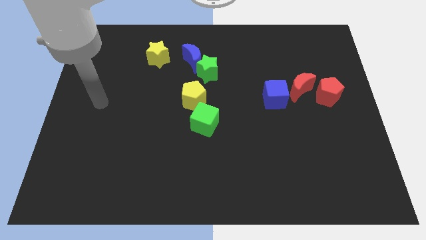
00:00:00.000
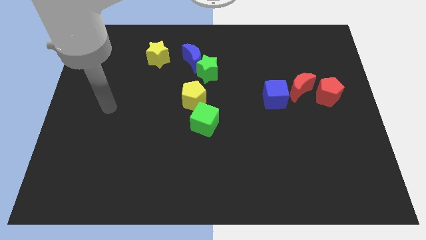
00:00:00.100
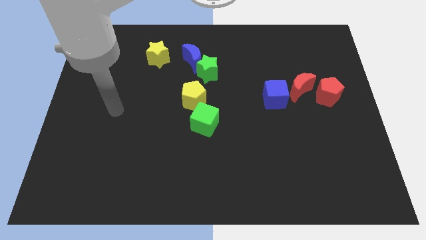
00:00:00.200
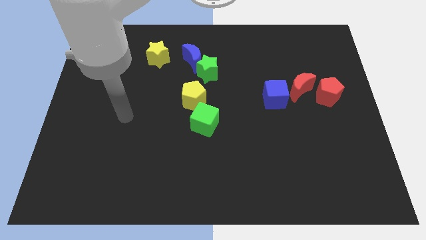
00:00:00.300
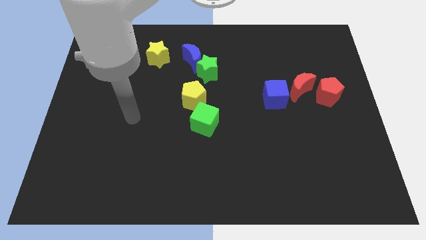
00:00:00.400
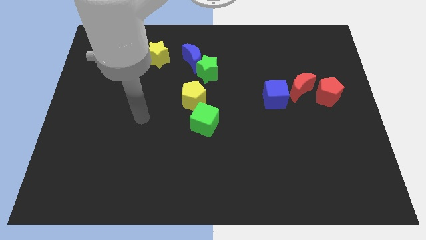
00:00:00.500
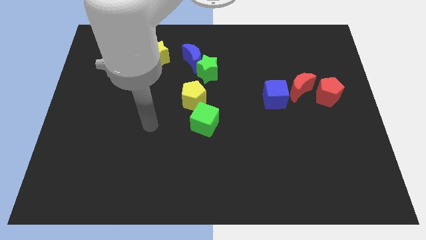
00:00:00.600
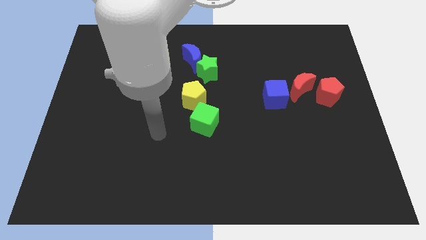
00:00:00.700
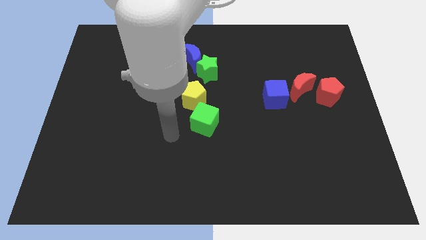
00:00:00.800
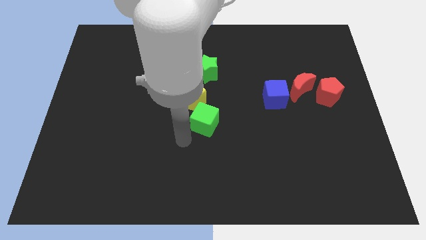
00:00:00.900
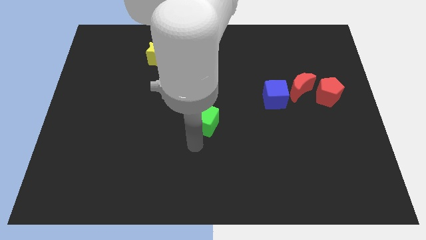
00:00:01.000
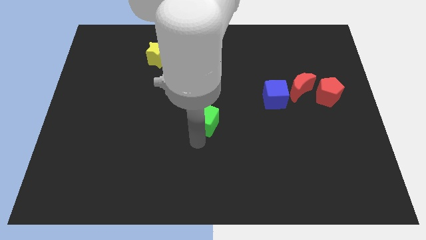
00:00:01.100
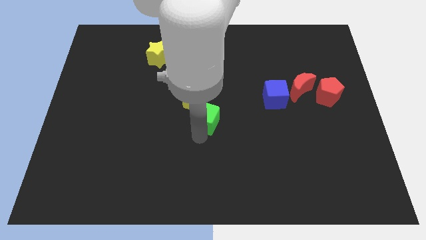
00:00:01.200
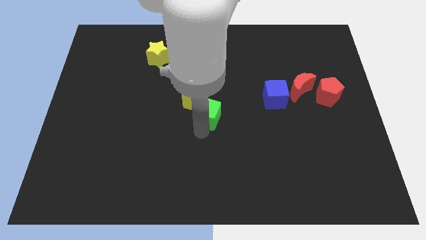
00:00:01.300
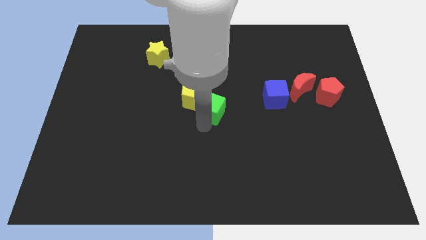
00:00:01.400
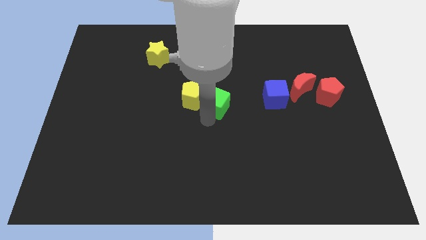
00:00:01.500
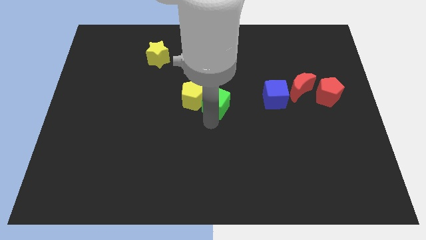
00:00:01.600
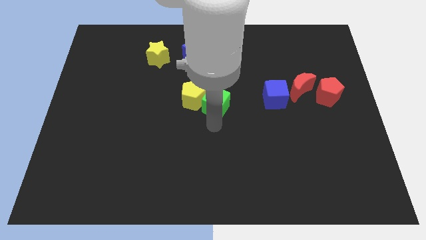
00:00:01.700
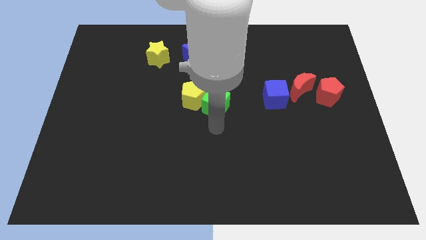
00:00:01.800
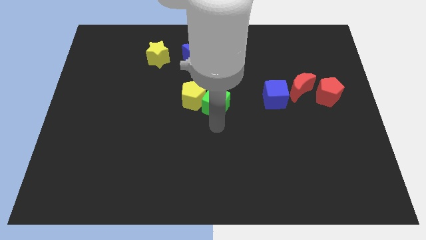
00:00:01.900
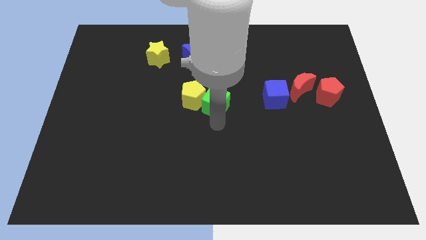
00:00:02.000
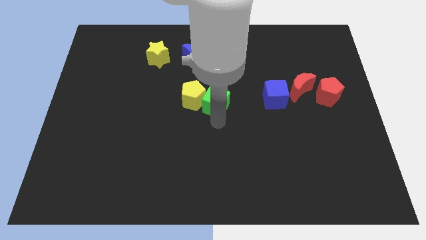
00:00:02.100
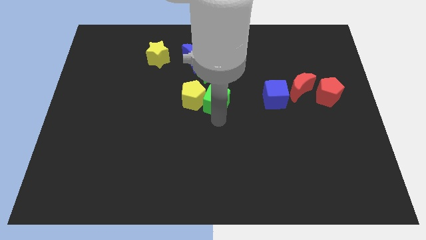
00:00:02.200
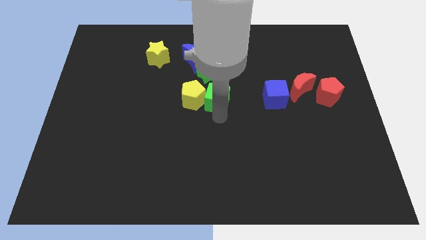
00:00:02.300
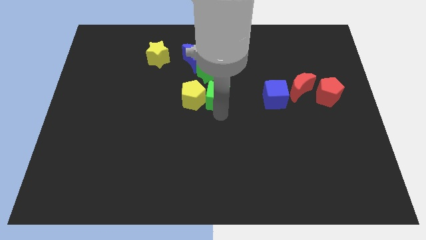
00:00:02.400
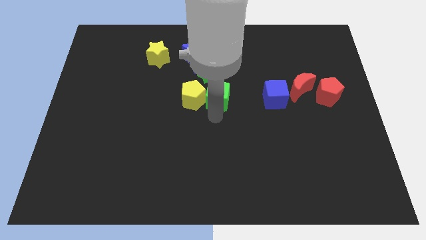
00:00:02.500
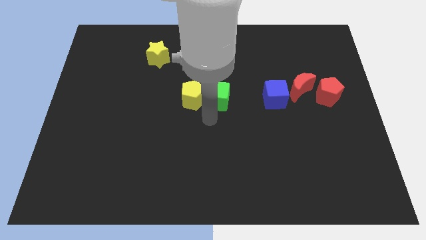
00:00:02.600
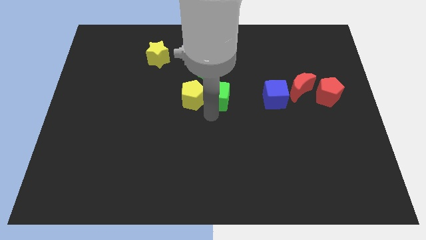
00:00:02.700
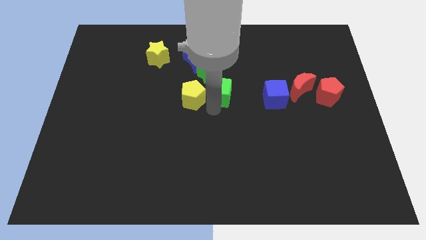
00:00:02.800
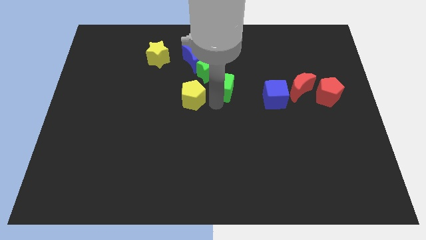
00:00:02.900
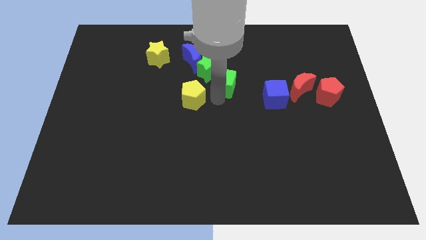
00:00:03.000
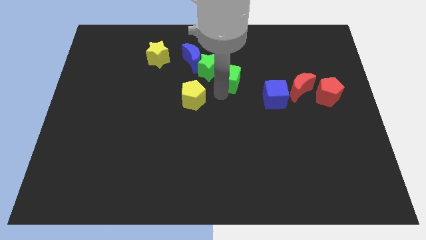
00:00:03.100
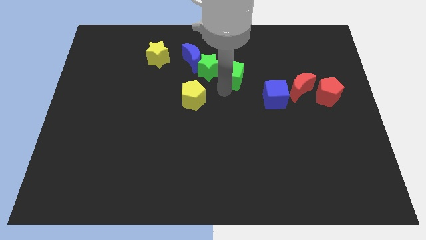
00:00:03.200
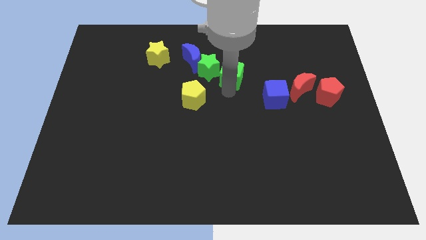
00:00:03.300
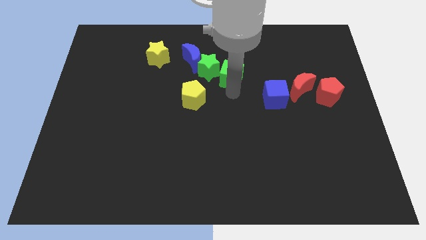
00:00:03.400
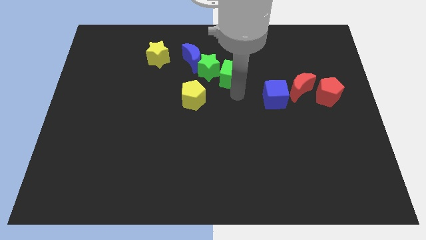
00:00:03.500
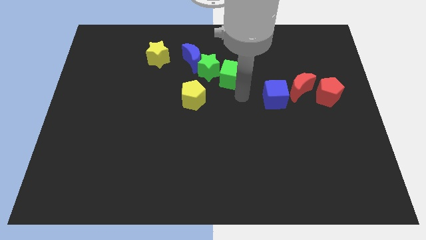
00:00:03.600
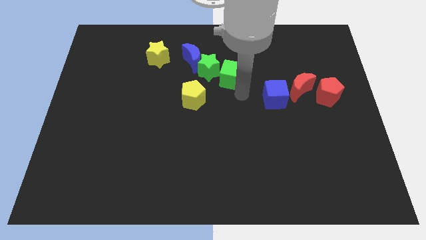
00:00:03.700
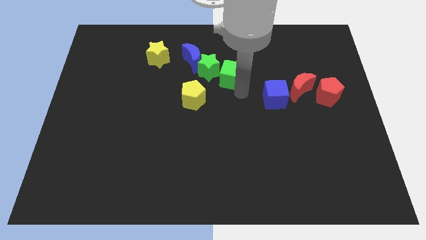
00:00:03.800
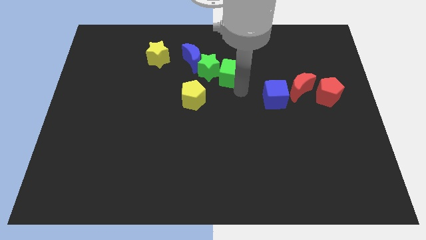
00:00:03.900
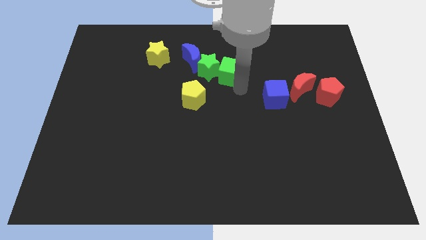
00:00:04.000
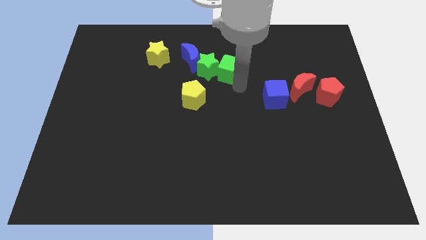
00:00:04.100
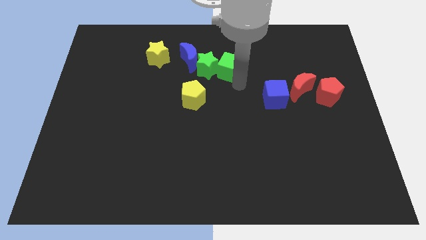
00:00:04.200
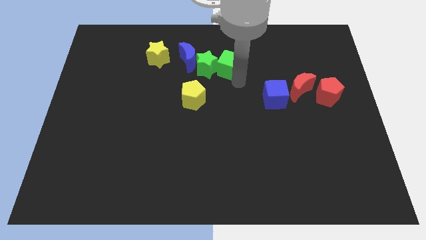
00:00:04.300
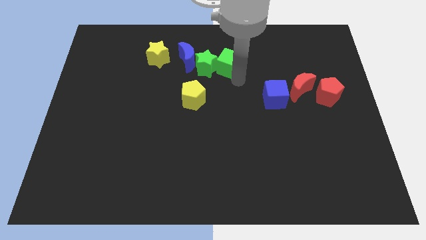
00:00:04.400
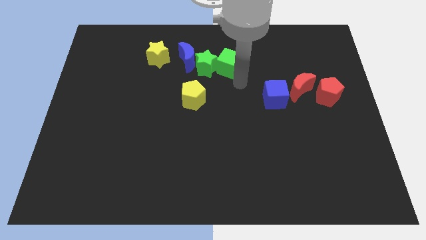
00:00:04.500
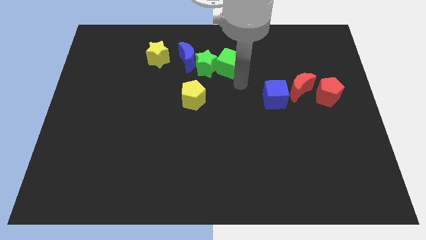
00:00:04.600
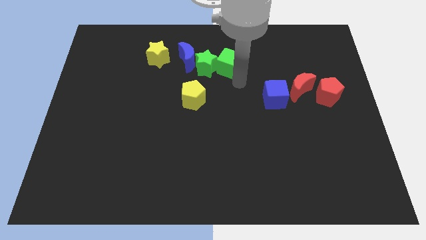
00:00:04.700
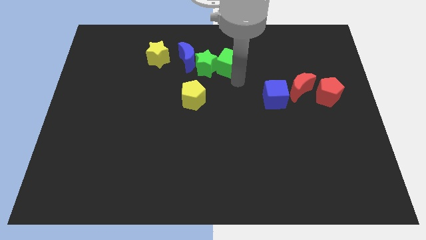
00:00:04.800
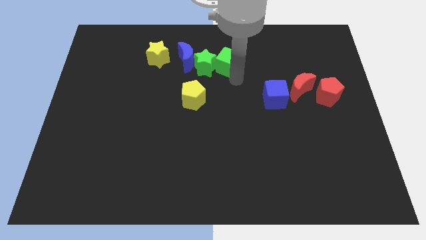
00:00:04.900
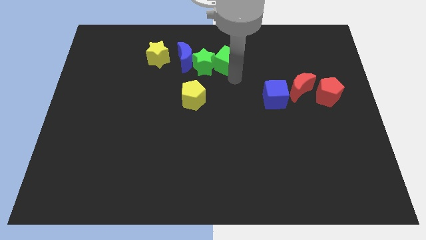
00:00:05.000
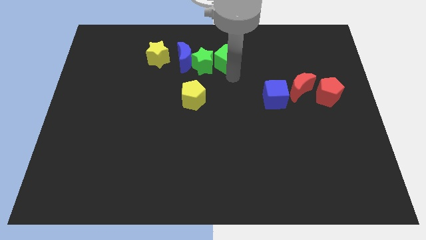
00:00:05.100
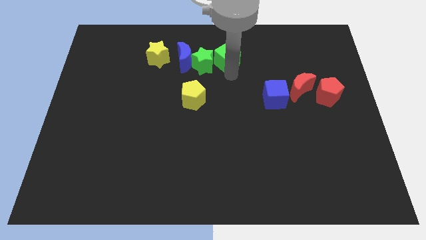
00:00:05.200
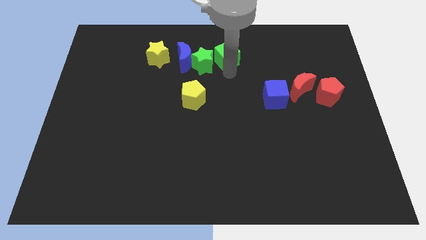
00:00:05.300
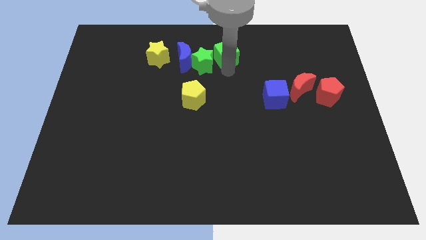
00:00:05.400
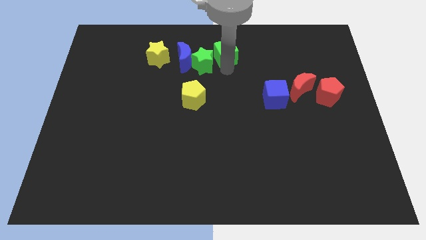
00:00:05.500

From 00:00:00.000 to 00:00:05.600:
push the green cube to the top side

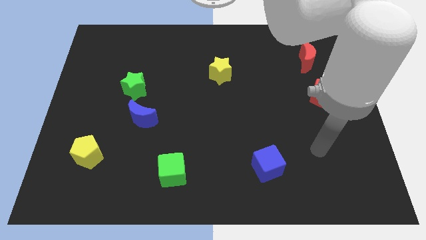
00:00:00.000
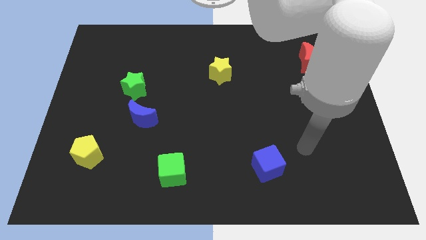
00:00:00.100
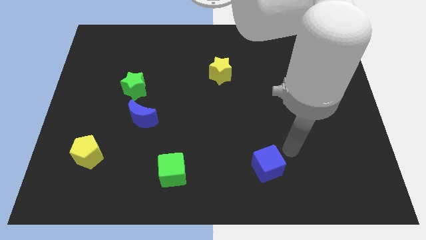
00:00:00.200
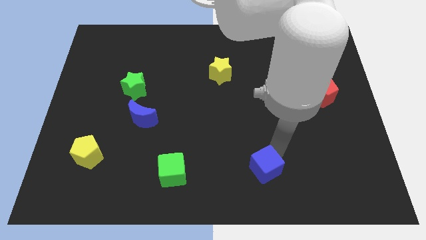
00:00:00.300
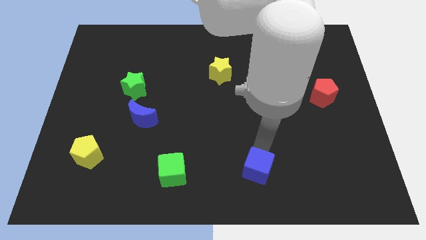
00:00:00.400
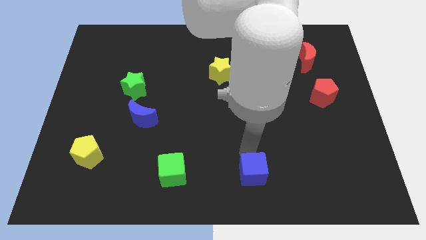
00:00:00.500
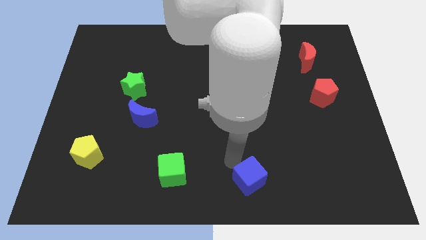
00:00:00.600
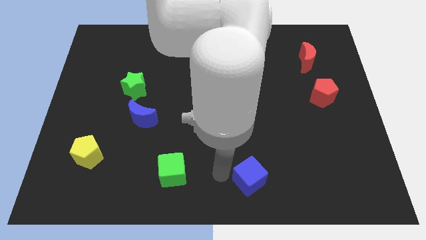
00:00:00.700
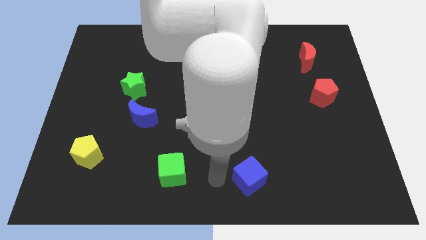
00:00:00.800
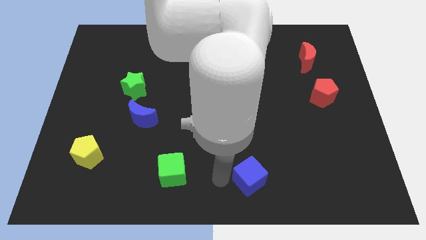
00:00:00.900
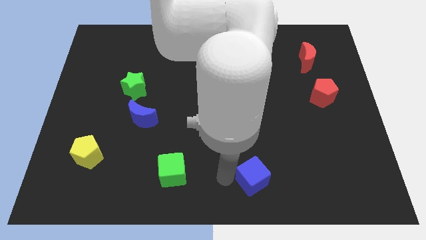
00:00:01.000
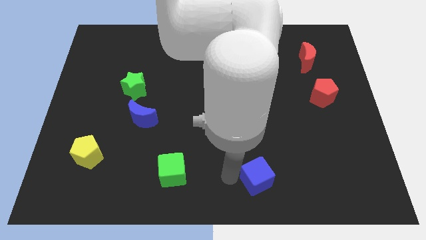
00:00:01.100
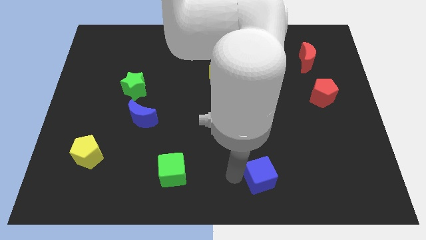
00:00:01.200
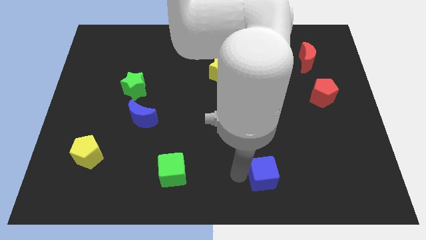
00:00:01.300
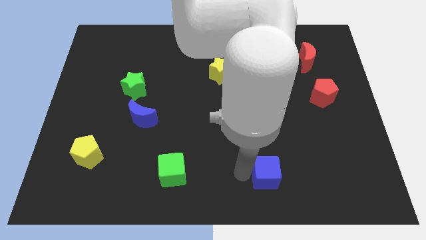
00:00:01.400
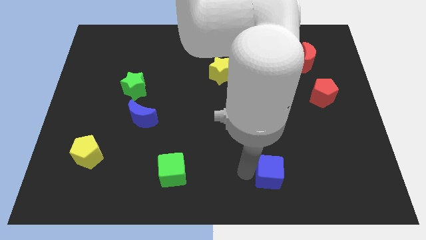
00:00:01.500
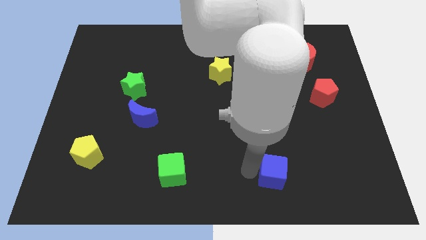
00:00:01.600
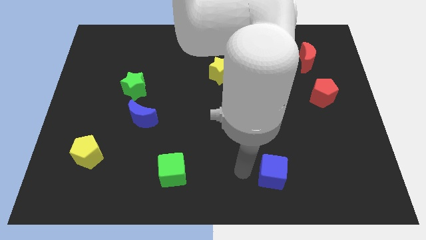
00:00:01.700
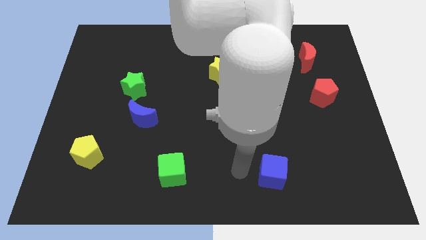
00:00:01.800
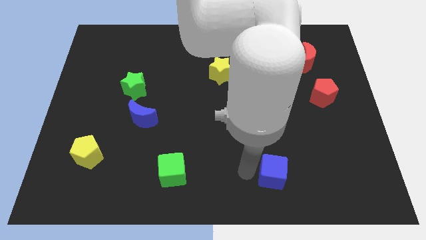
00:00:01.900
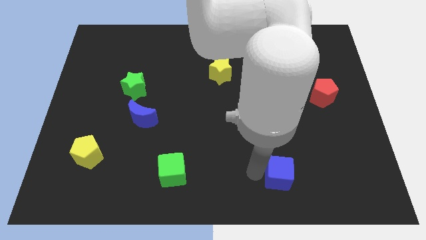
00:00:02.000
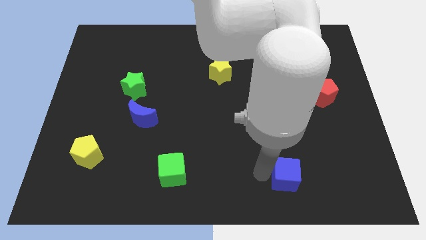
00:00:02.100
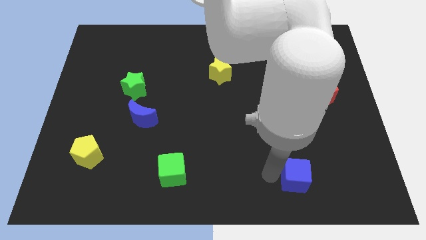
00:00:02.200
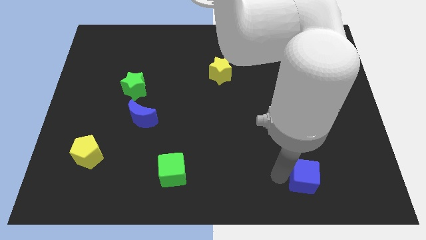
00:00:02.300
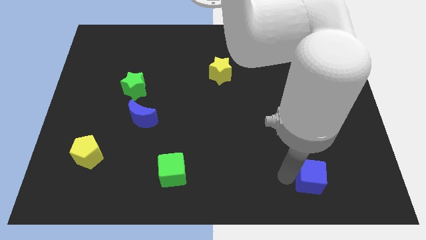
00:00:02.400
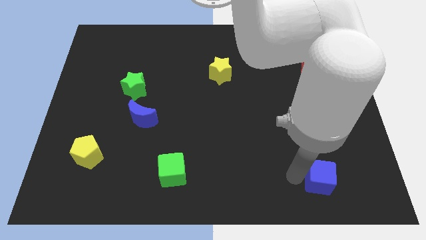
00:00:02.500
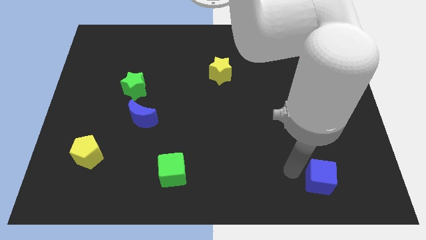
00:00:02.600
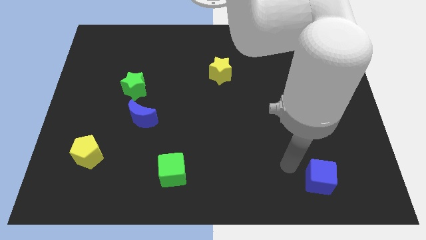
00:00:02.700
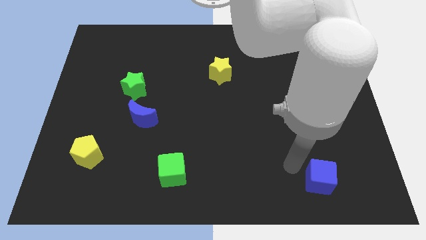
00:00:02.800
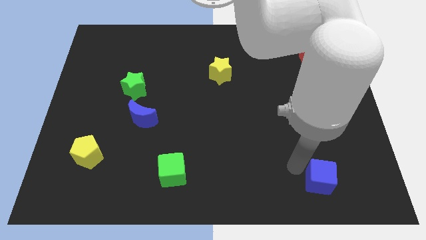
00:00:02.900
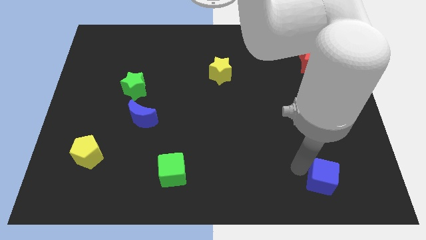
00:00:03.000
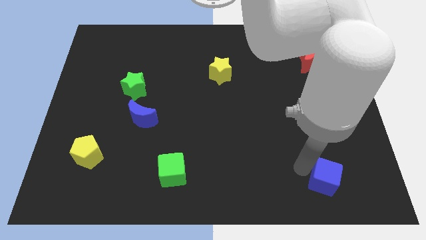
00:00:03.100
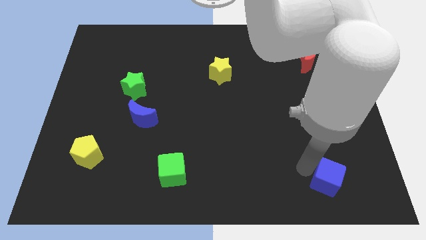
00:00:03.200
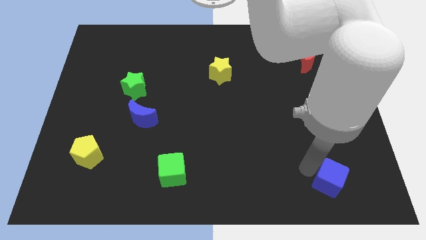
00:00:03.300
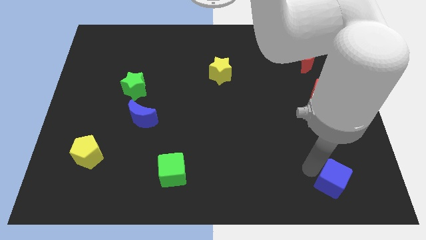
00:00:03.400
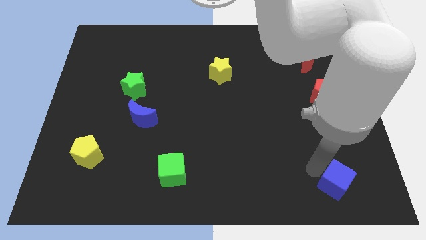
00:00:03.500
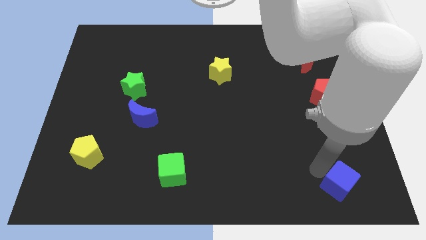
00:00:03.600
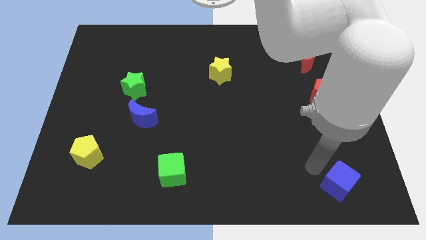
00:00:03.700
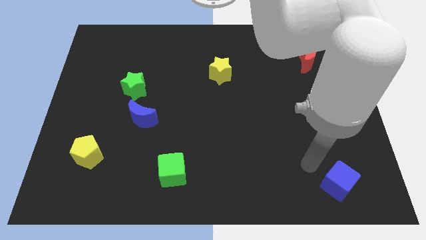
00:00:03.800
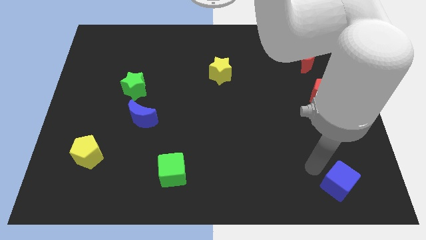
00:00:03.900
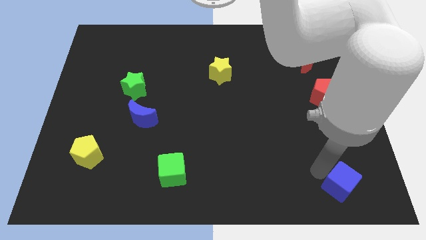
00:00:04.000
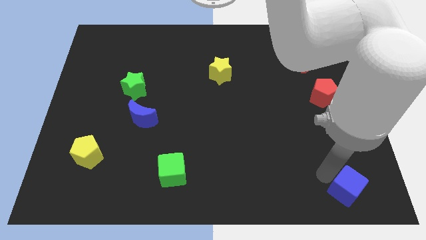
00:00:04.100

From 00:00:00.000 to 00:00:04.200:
slide the blue cube to the bottom right
